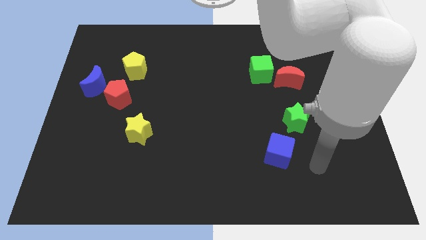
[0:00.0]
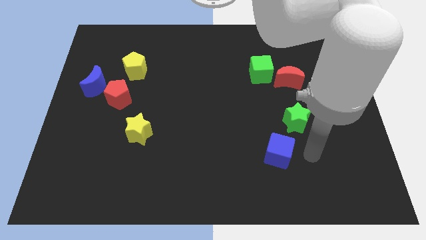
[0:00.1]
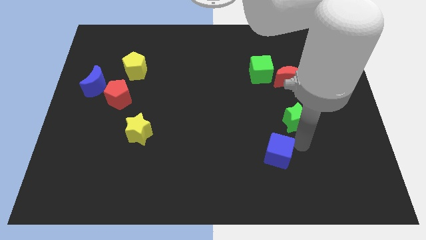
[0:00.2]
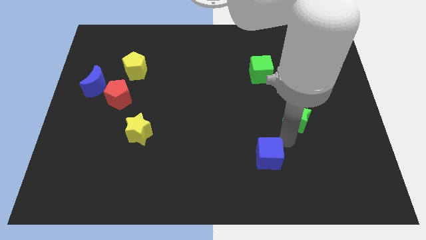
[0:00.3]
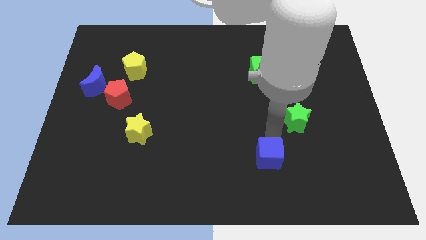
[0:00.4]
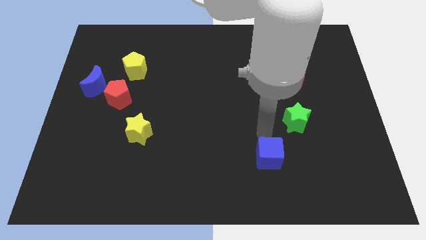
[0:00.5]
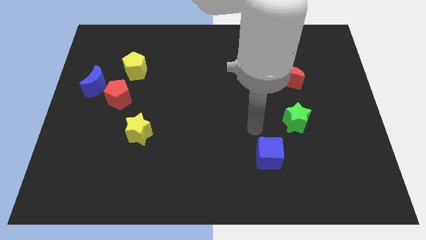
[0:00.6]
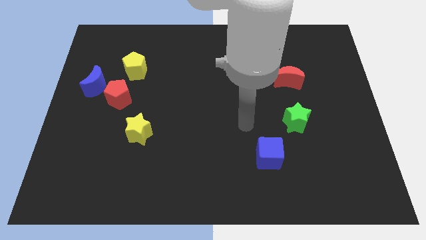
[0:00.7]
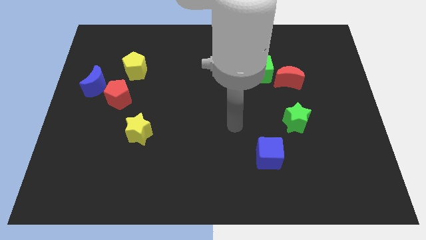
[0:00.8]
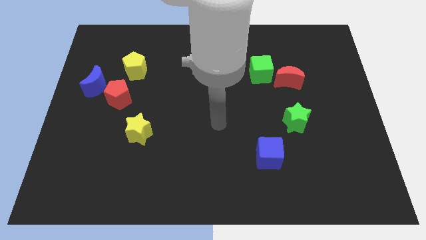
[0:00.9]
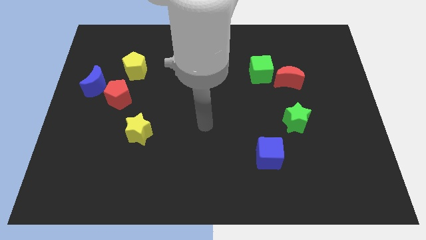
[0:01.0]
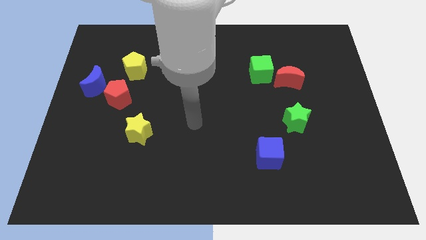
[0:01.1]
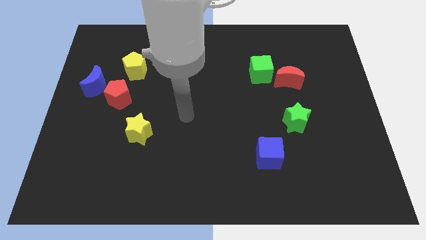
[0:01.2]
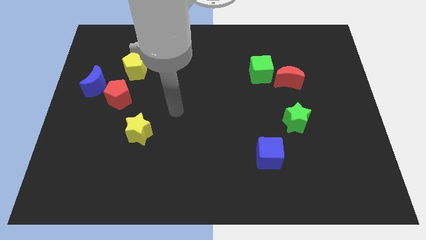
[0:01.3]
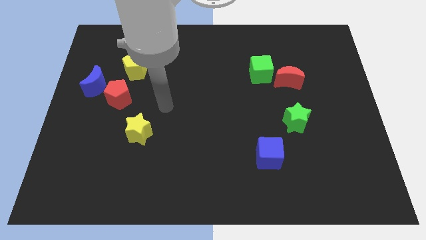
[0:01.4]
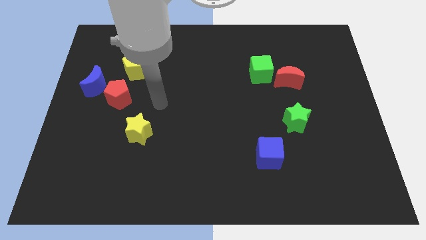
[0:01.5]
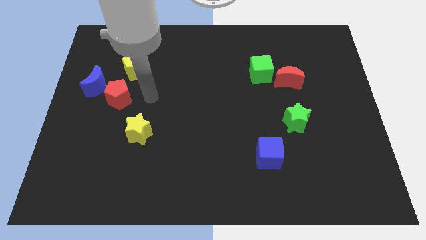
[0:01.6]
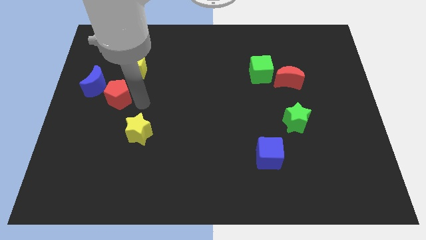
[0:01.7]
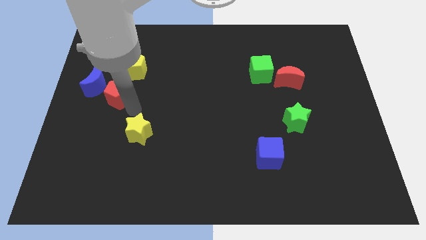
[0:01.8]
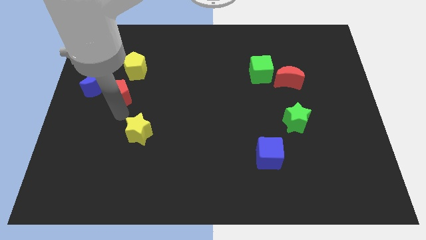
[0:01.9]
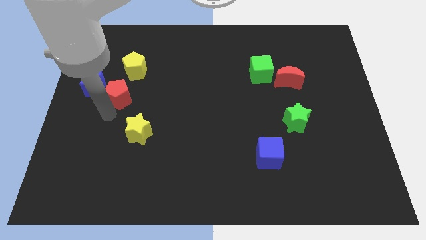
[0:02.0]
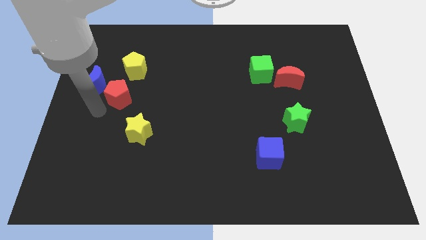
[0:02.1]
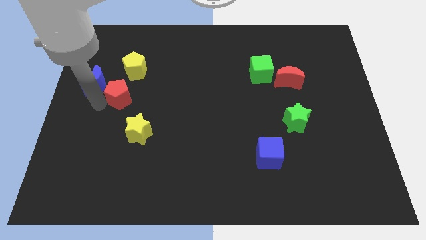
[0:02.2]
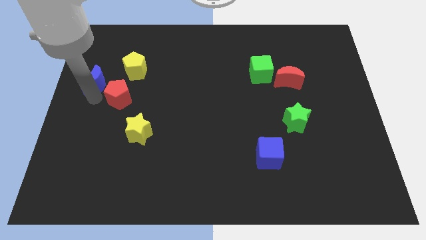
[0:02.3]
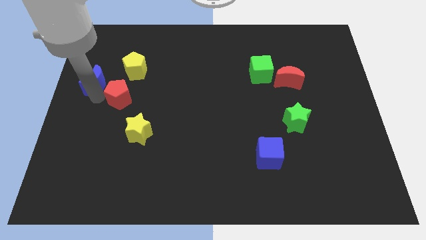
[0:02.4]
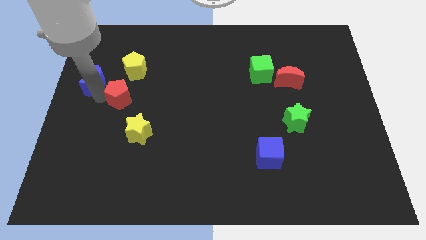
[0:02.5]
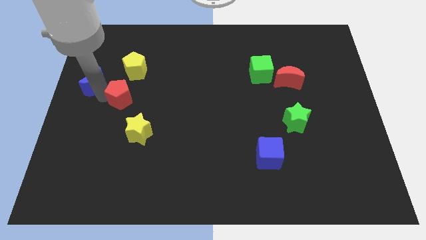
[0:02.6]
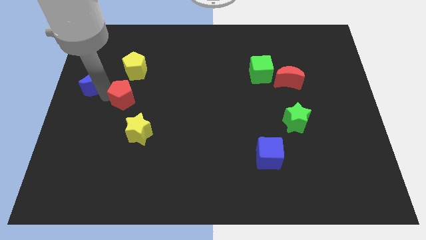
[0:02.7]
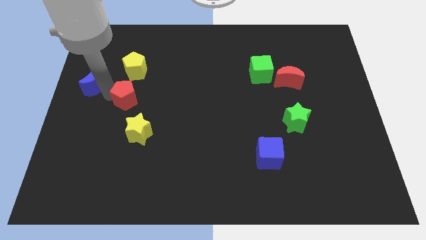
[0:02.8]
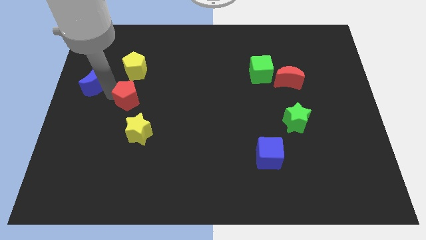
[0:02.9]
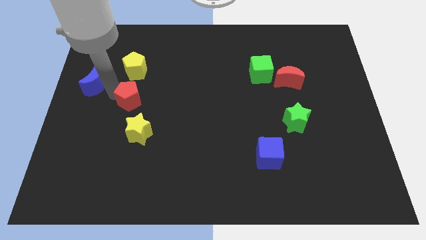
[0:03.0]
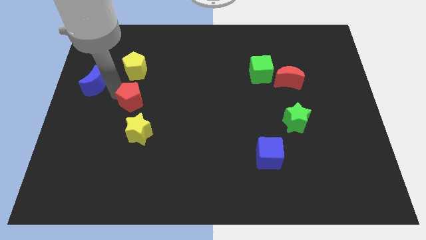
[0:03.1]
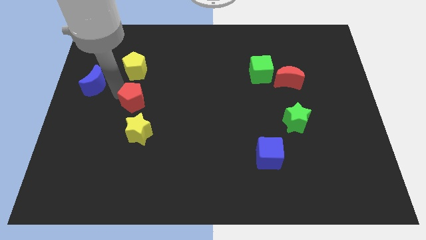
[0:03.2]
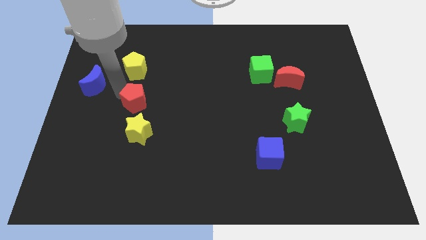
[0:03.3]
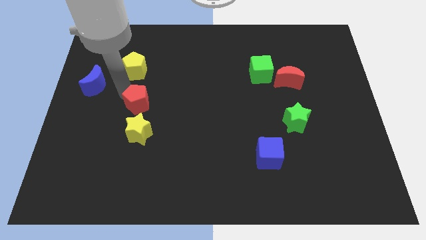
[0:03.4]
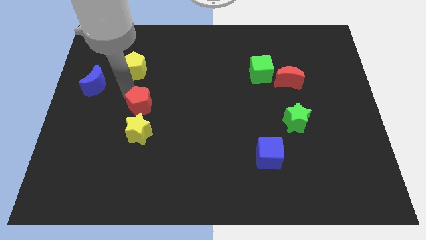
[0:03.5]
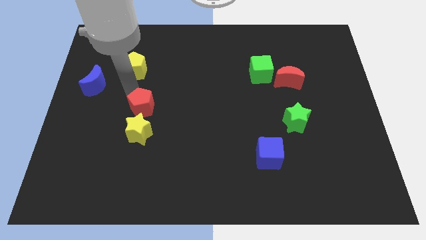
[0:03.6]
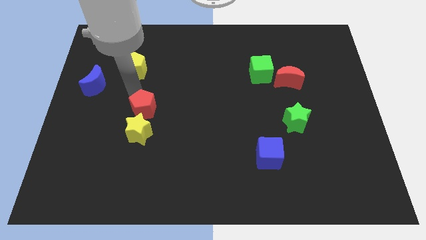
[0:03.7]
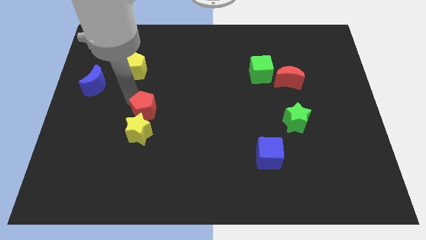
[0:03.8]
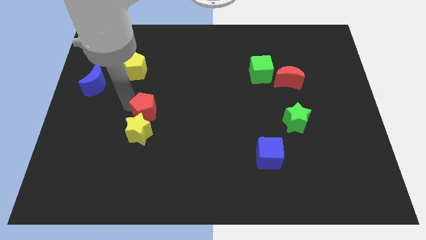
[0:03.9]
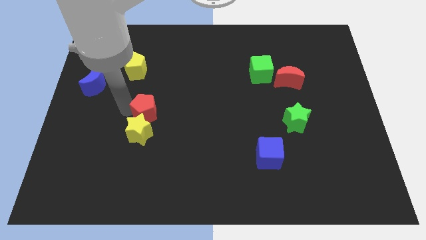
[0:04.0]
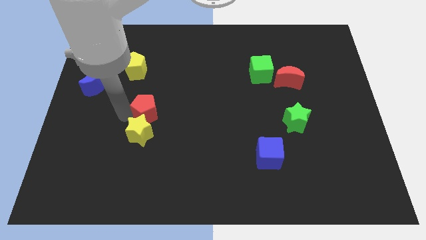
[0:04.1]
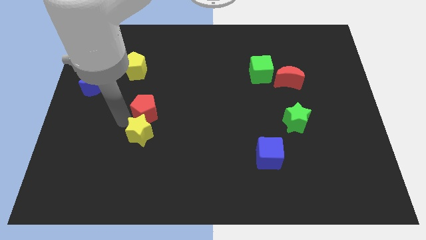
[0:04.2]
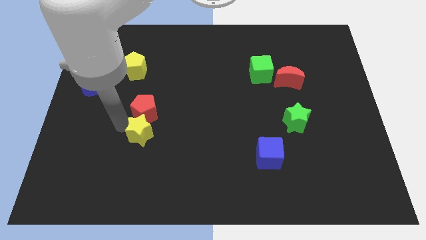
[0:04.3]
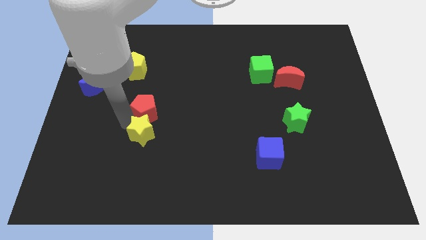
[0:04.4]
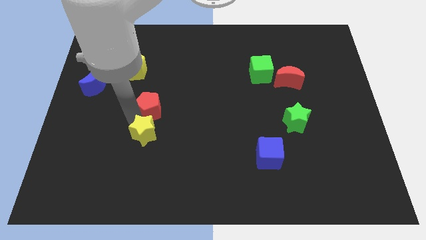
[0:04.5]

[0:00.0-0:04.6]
slightly move the red pentagon right

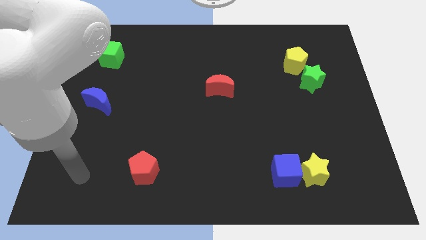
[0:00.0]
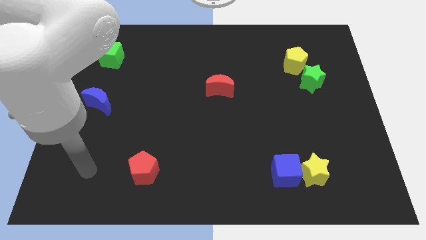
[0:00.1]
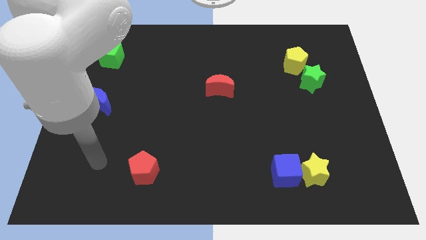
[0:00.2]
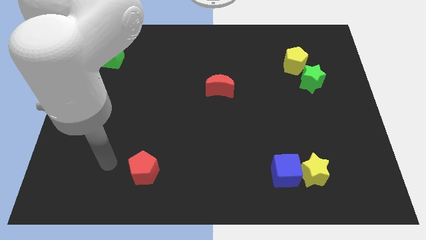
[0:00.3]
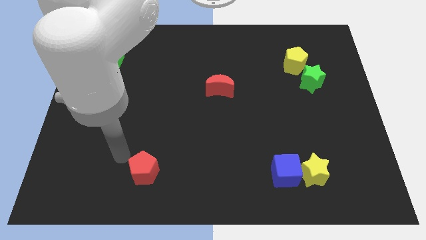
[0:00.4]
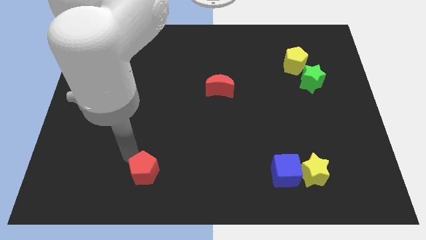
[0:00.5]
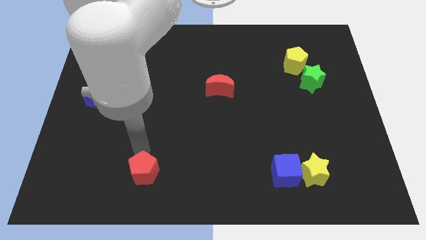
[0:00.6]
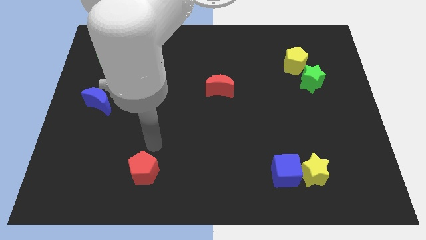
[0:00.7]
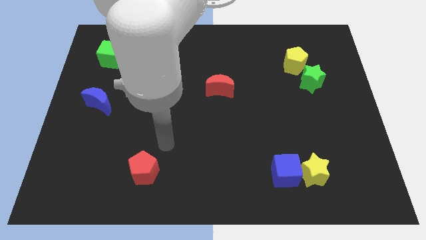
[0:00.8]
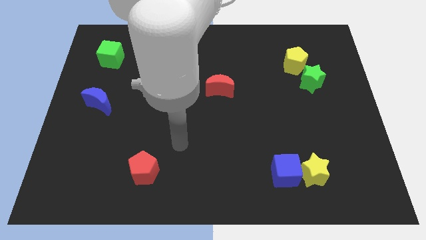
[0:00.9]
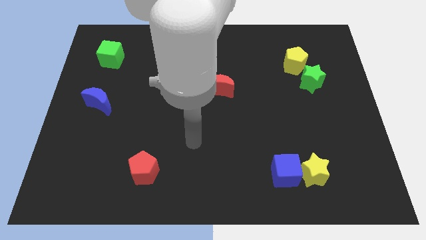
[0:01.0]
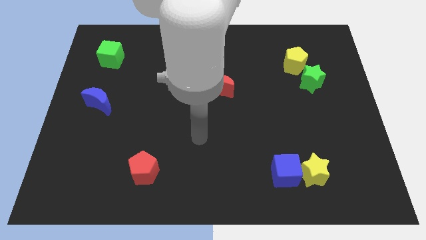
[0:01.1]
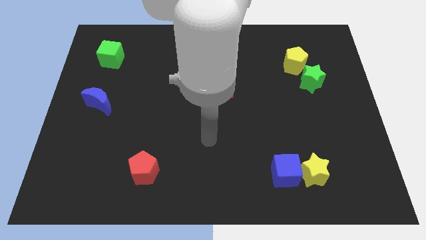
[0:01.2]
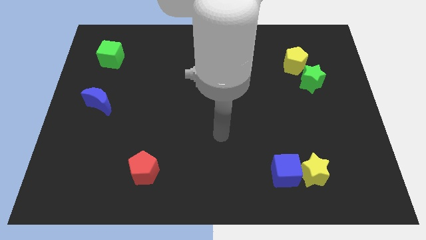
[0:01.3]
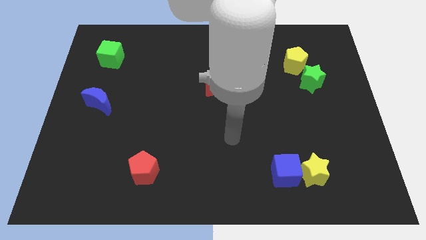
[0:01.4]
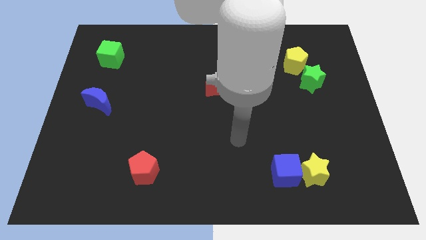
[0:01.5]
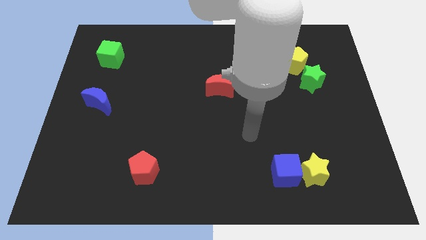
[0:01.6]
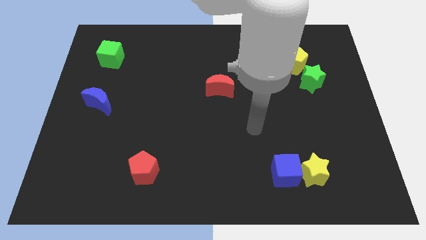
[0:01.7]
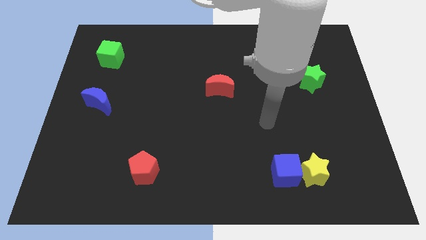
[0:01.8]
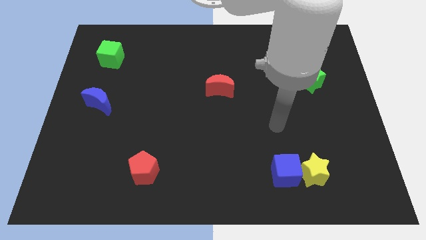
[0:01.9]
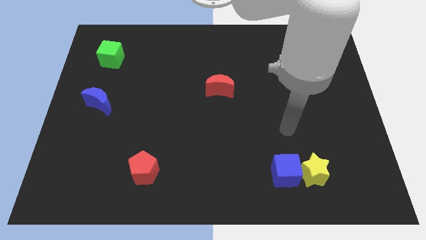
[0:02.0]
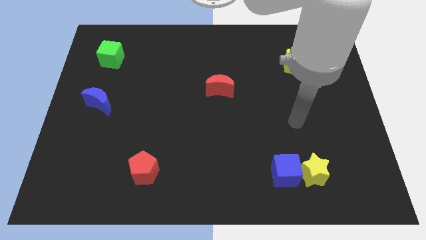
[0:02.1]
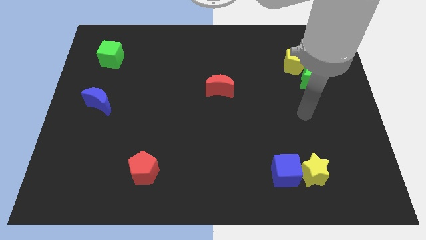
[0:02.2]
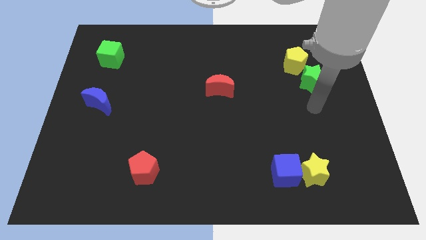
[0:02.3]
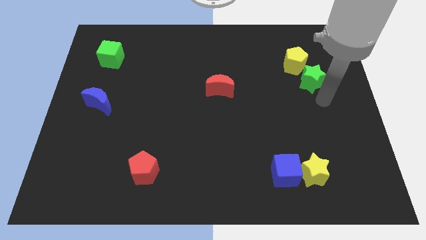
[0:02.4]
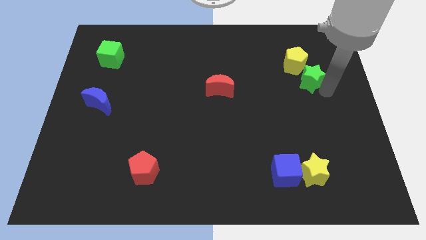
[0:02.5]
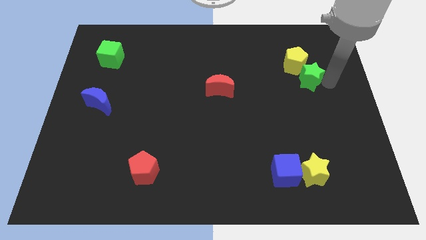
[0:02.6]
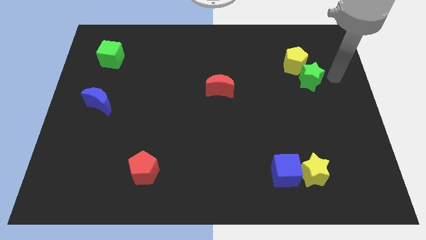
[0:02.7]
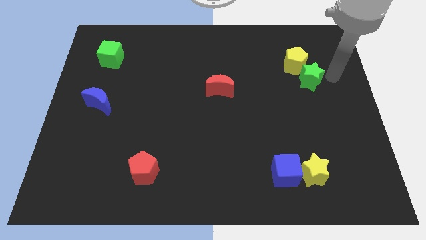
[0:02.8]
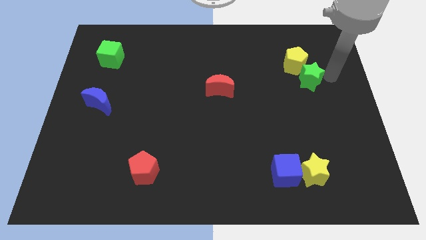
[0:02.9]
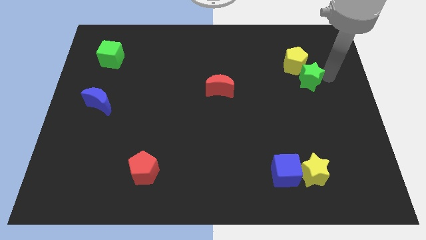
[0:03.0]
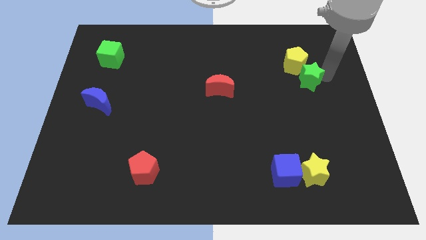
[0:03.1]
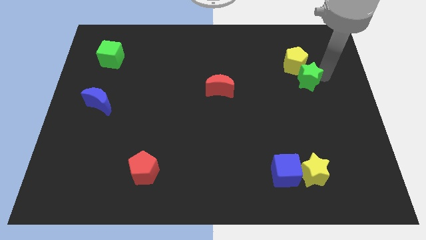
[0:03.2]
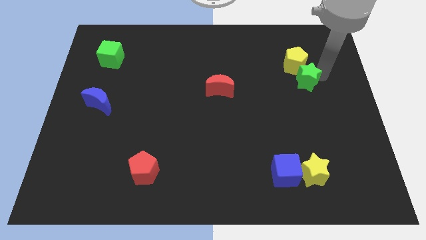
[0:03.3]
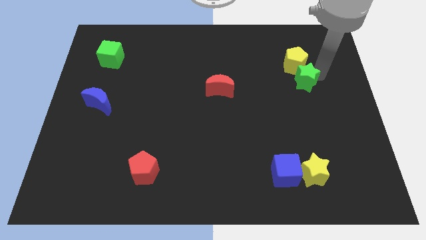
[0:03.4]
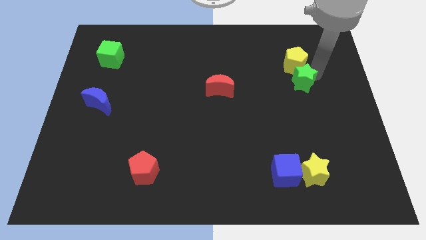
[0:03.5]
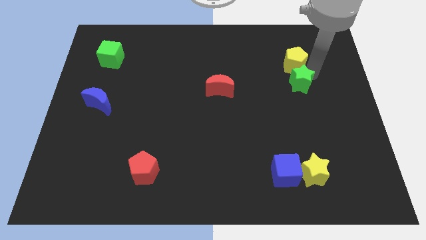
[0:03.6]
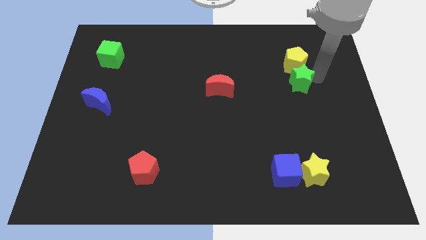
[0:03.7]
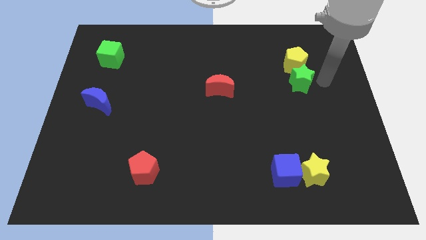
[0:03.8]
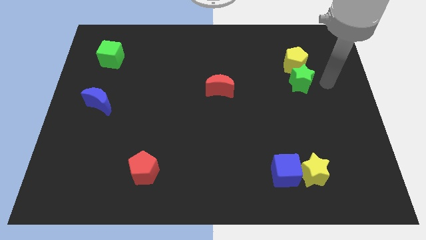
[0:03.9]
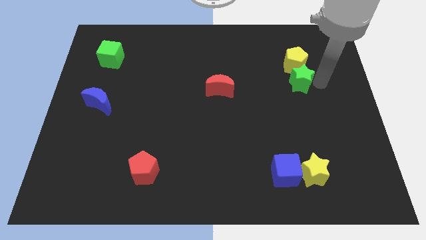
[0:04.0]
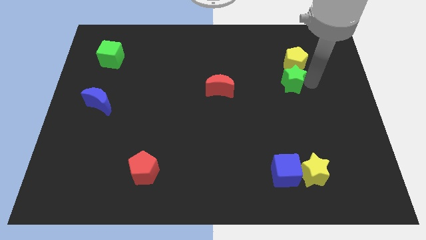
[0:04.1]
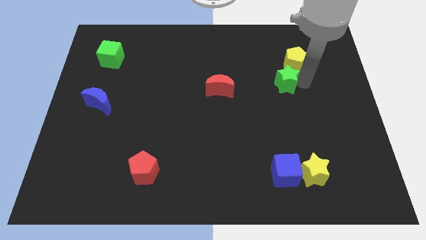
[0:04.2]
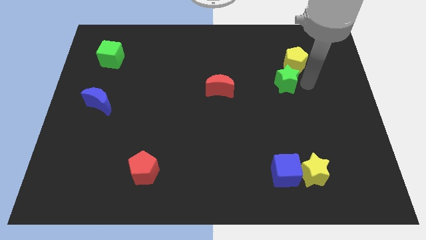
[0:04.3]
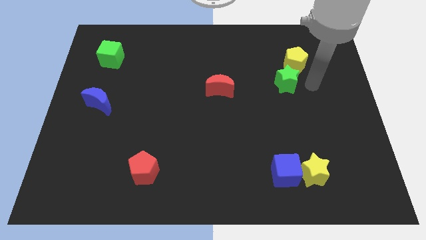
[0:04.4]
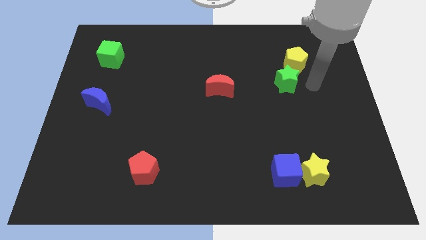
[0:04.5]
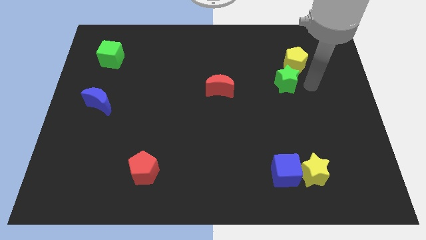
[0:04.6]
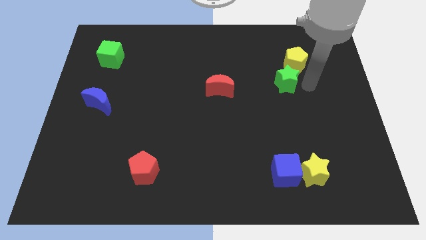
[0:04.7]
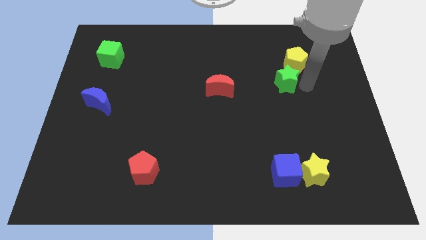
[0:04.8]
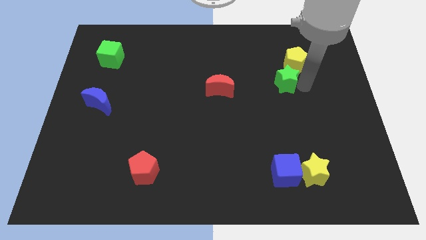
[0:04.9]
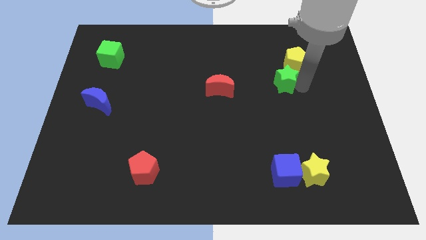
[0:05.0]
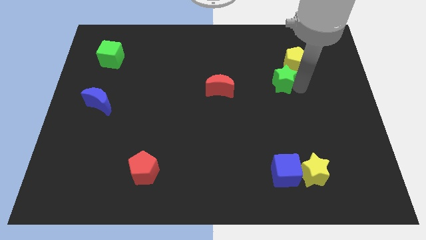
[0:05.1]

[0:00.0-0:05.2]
push the green star left somewhat
